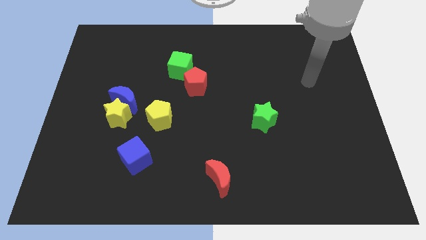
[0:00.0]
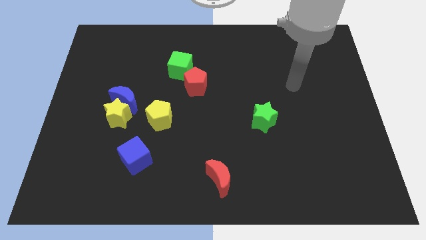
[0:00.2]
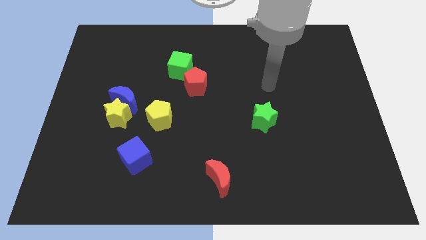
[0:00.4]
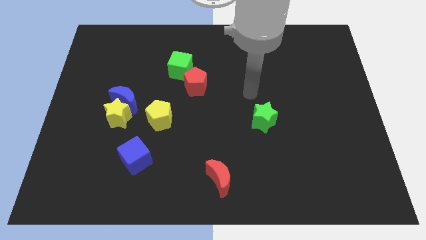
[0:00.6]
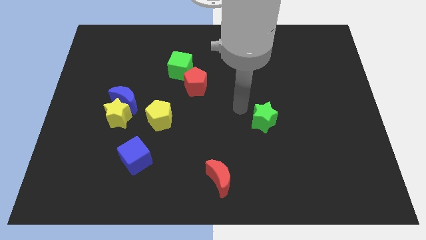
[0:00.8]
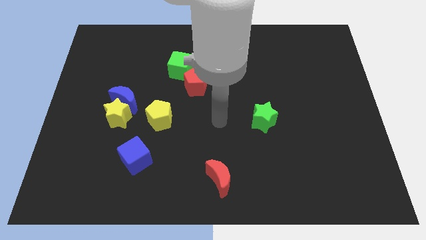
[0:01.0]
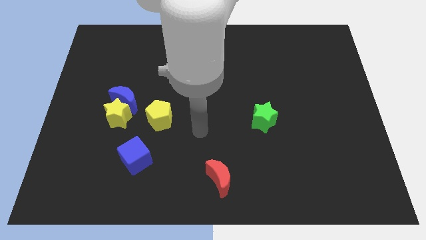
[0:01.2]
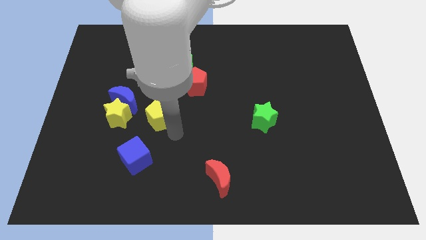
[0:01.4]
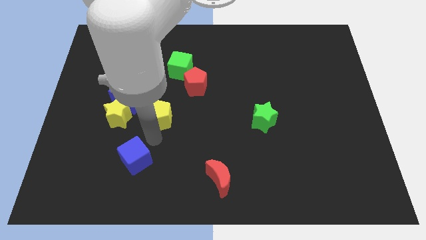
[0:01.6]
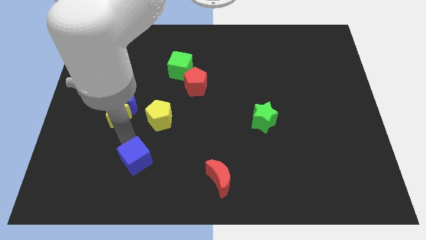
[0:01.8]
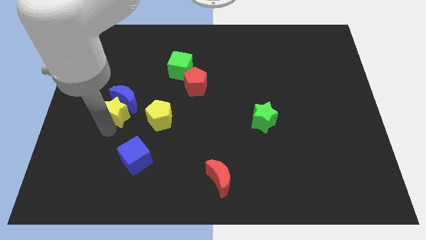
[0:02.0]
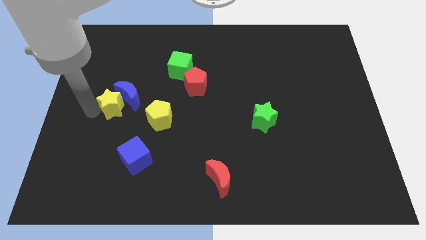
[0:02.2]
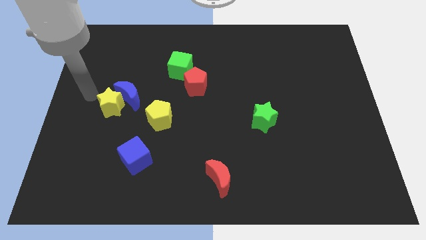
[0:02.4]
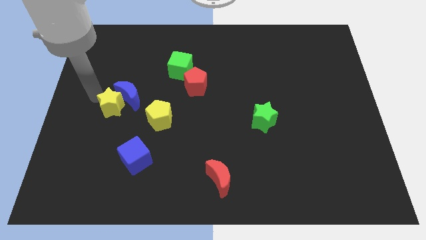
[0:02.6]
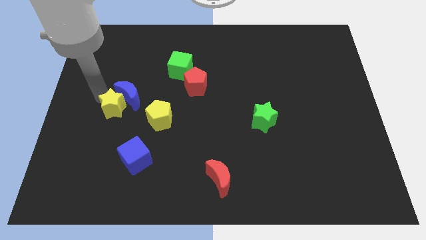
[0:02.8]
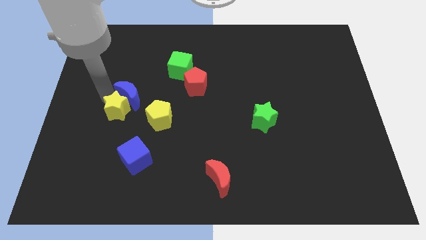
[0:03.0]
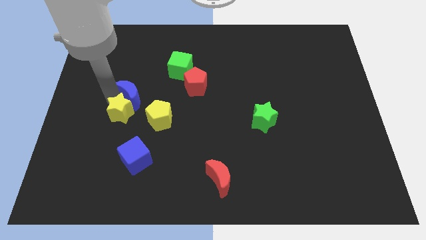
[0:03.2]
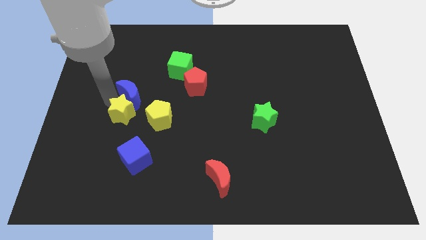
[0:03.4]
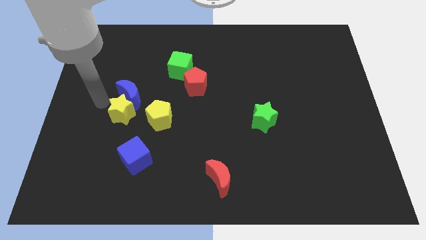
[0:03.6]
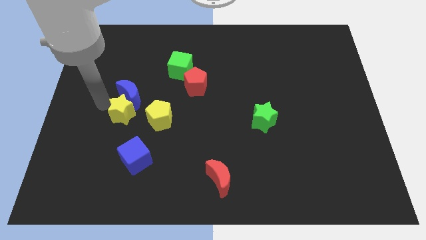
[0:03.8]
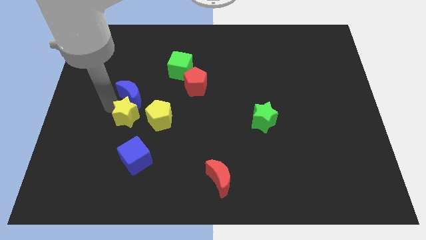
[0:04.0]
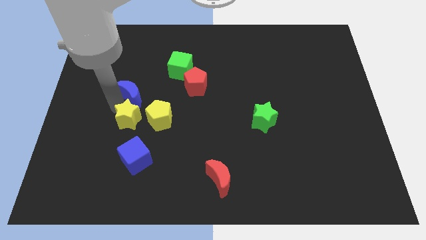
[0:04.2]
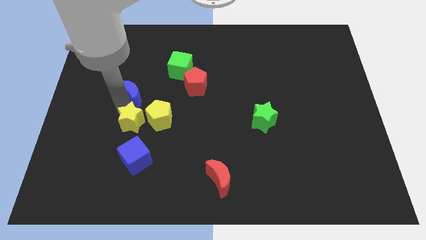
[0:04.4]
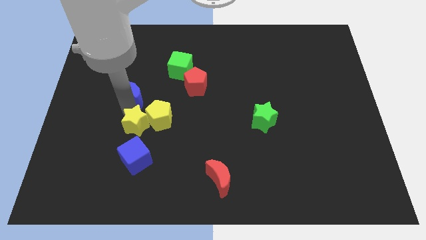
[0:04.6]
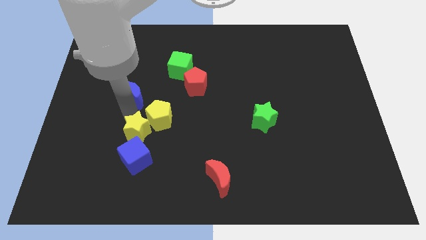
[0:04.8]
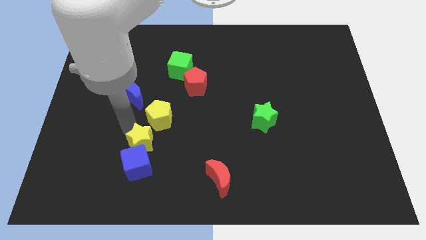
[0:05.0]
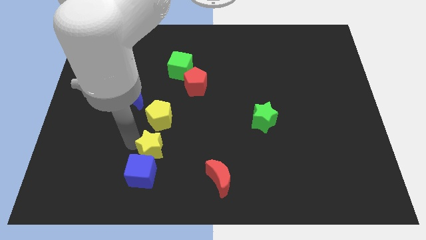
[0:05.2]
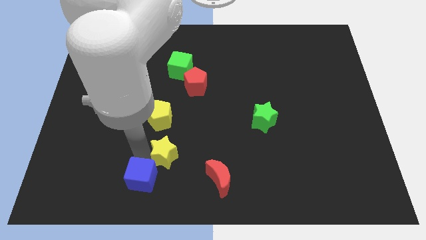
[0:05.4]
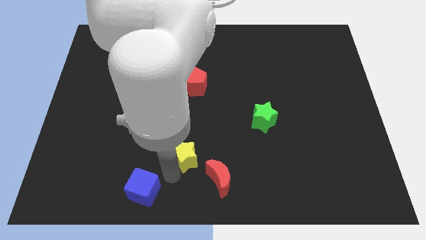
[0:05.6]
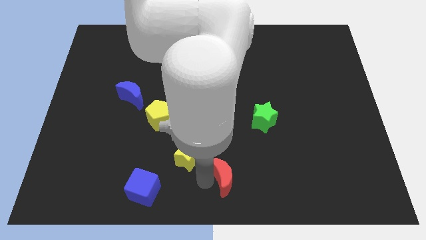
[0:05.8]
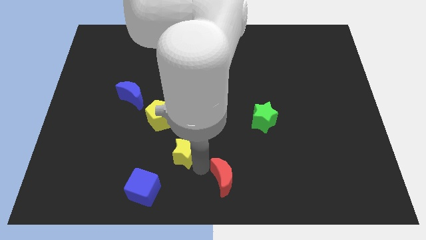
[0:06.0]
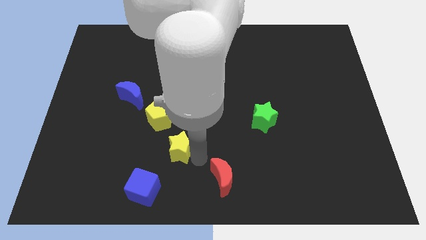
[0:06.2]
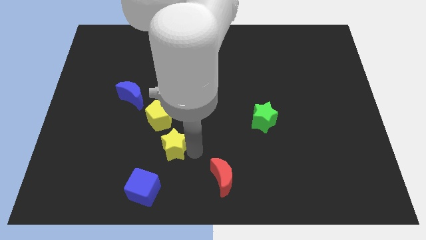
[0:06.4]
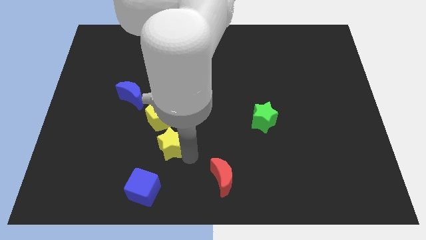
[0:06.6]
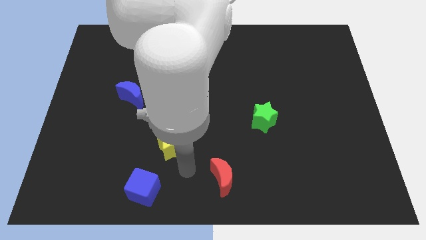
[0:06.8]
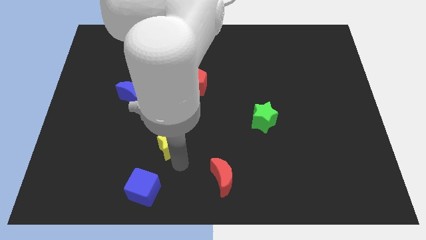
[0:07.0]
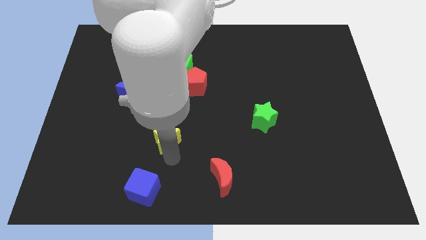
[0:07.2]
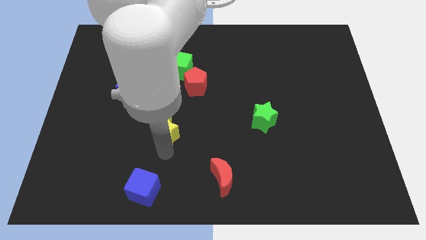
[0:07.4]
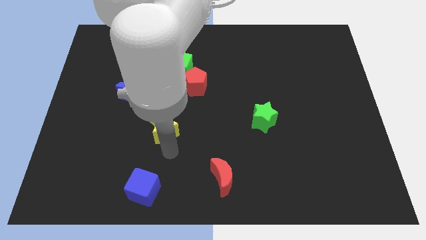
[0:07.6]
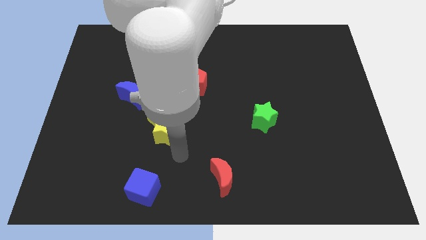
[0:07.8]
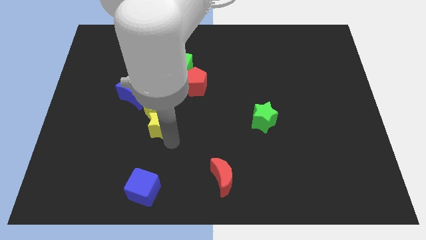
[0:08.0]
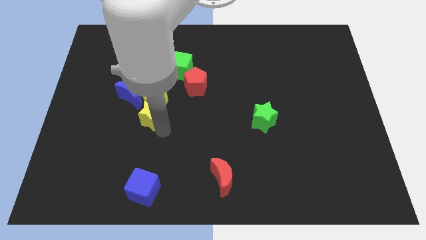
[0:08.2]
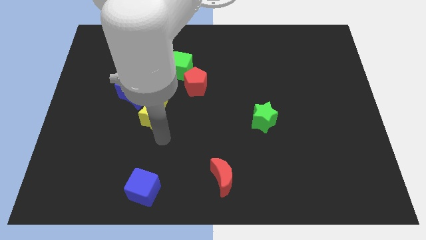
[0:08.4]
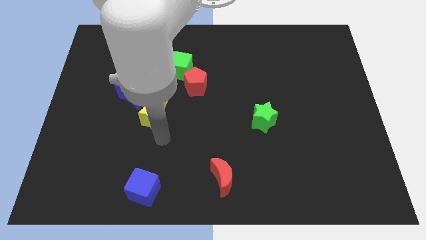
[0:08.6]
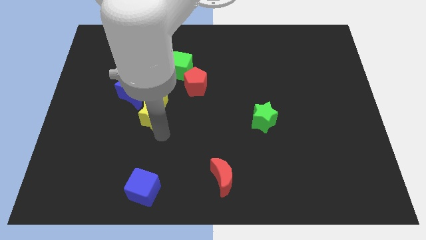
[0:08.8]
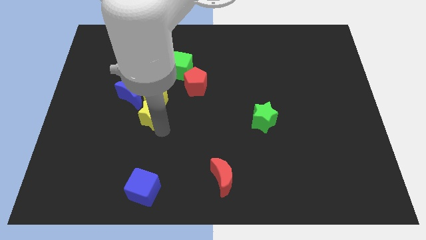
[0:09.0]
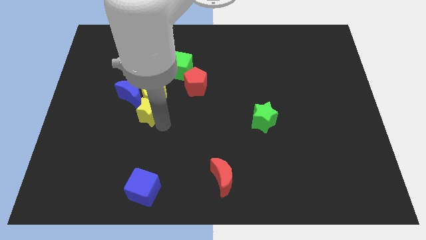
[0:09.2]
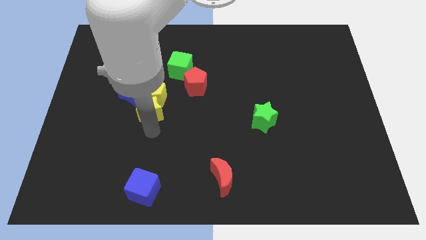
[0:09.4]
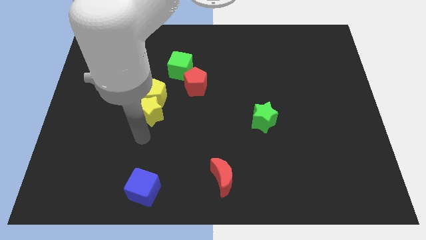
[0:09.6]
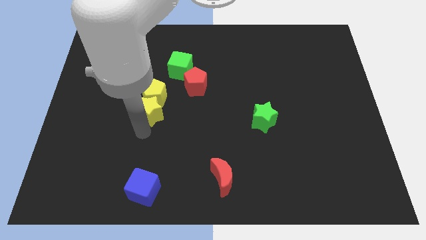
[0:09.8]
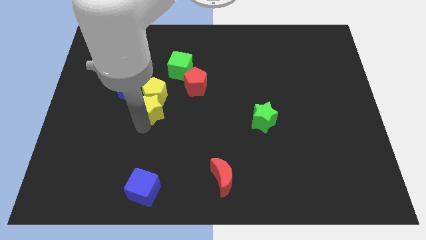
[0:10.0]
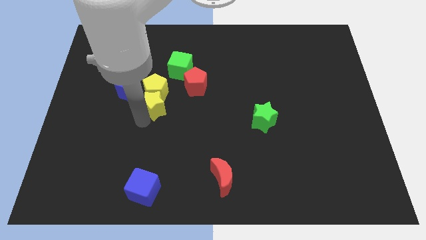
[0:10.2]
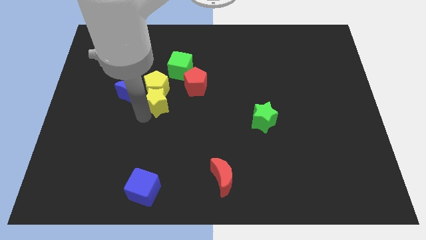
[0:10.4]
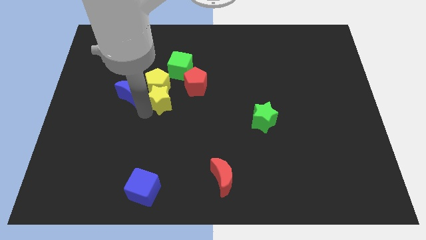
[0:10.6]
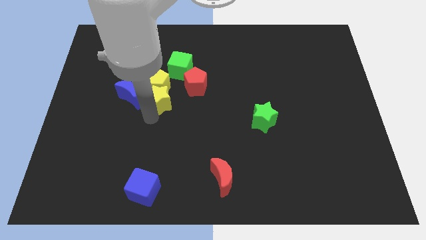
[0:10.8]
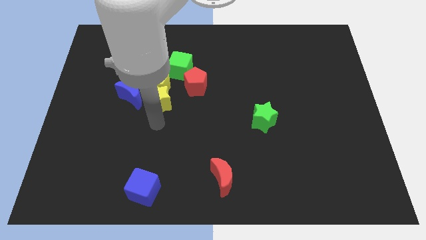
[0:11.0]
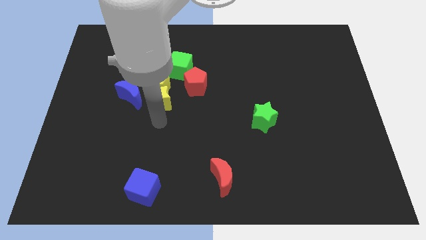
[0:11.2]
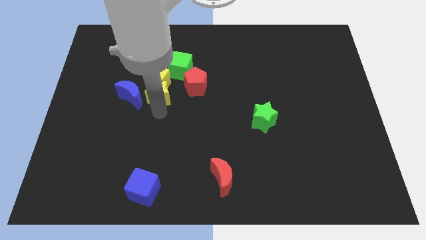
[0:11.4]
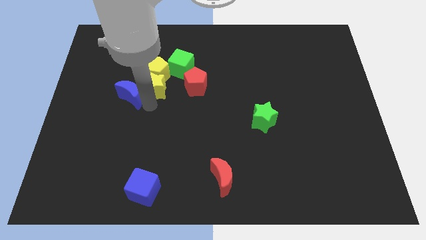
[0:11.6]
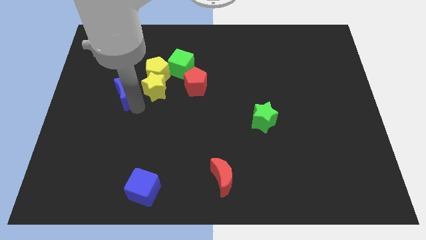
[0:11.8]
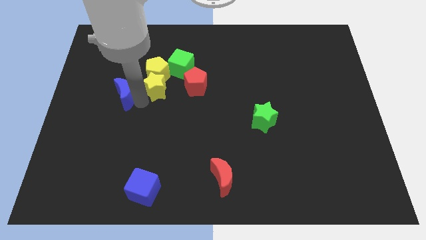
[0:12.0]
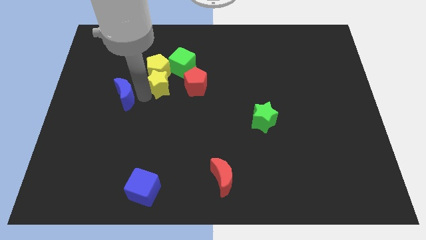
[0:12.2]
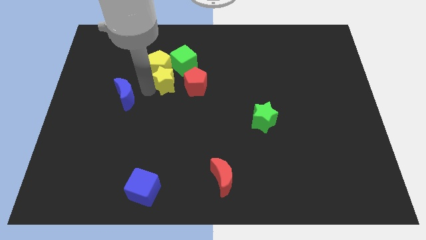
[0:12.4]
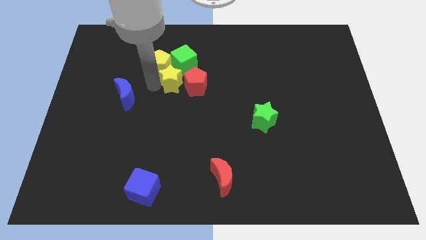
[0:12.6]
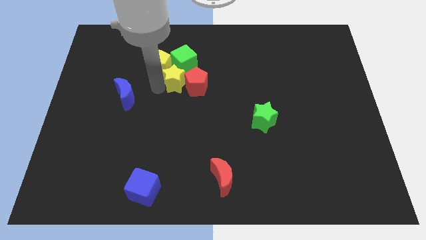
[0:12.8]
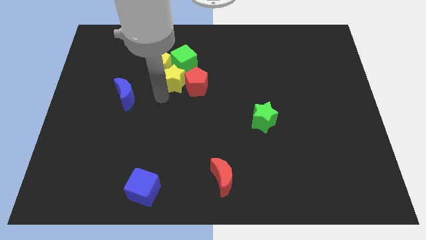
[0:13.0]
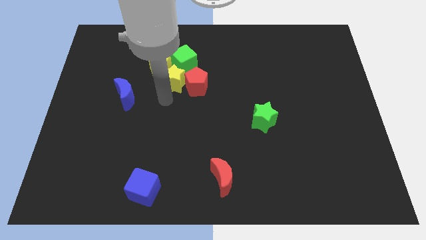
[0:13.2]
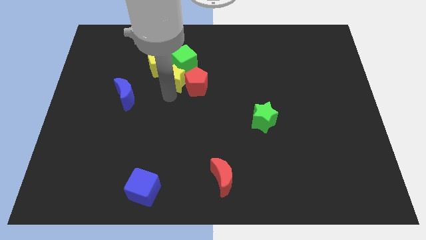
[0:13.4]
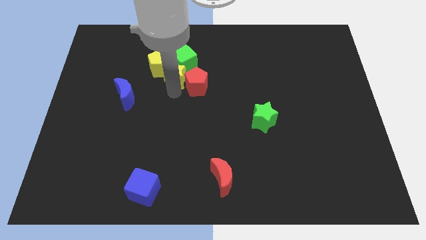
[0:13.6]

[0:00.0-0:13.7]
move the yellow star next to the green cube

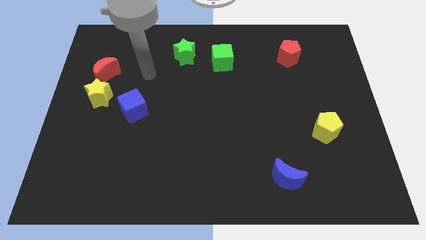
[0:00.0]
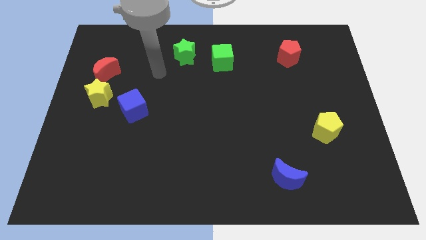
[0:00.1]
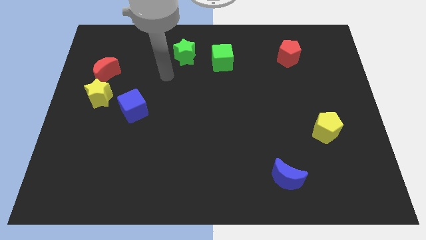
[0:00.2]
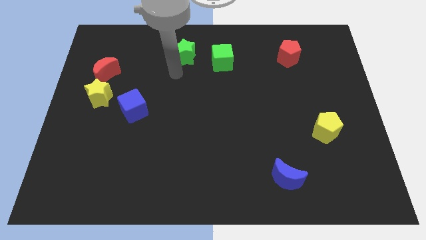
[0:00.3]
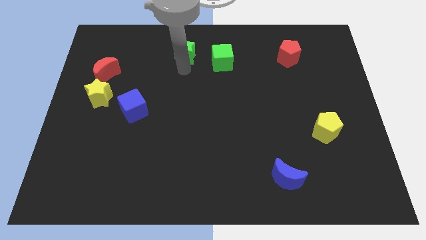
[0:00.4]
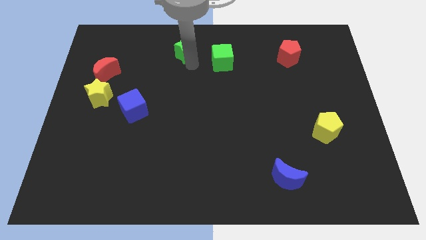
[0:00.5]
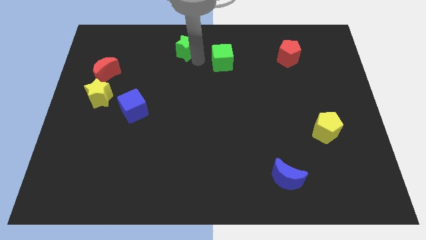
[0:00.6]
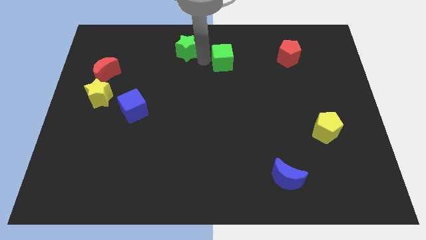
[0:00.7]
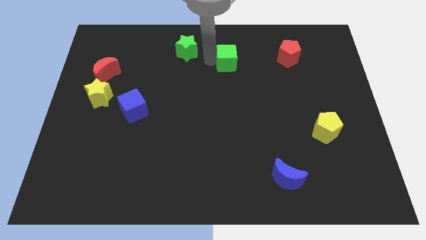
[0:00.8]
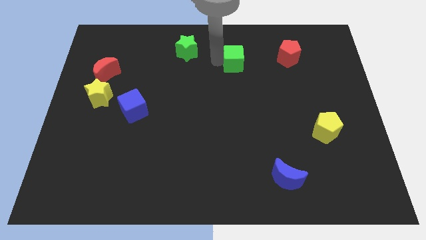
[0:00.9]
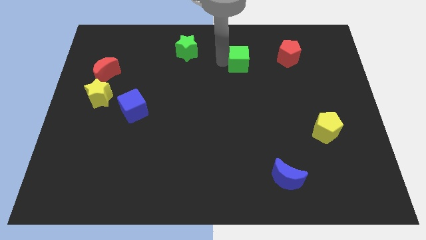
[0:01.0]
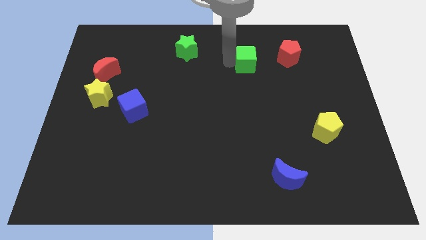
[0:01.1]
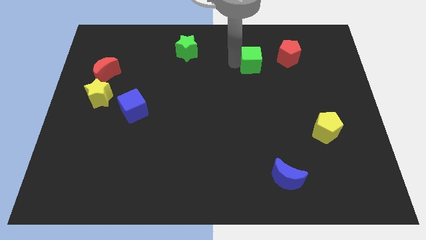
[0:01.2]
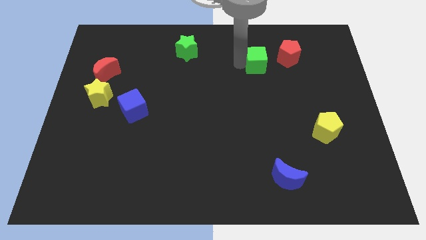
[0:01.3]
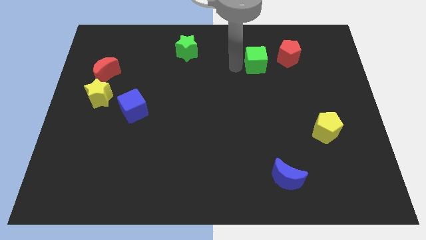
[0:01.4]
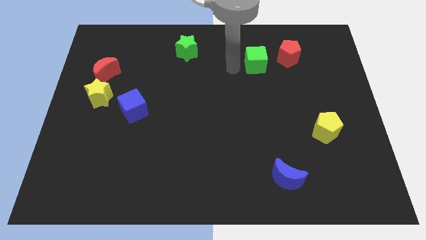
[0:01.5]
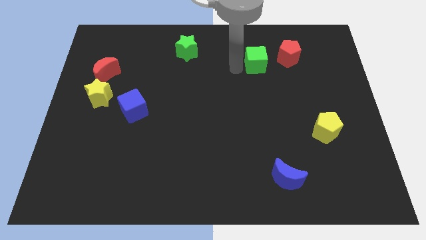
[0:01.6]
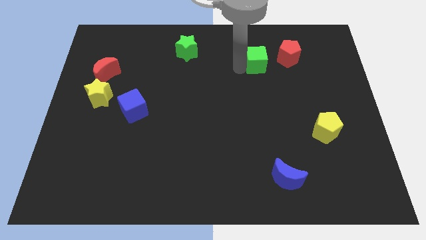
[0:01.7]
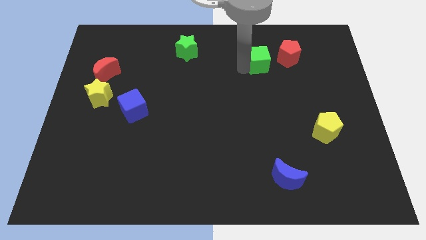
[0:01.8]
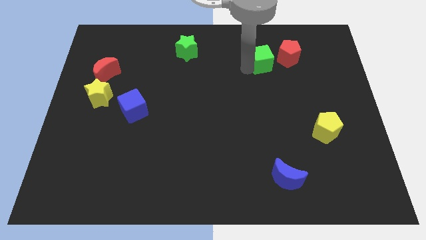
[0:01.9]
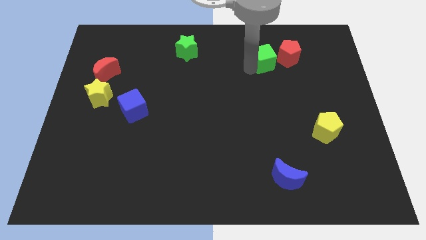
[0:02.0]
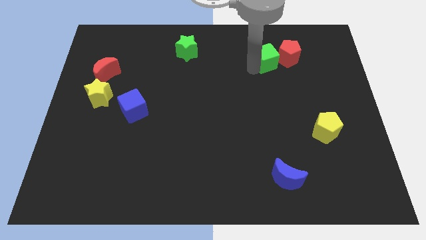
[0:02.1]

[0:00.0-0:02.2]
move the green cube to the red pentagon
